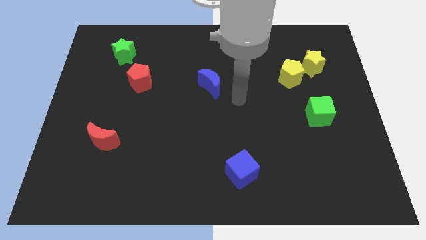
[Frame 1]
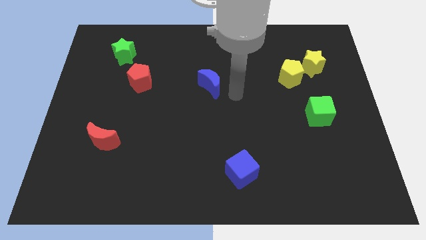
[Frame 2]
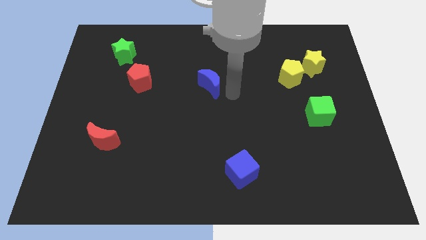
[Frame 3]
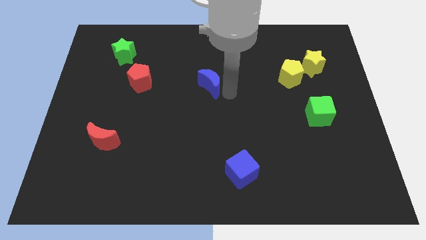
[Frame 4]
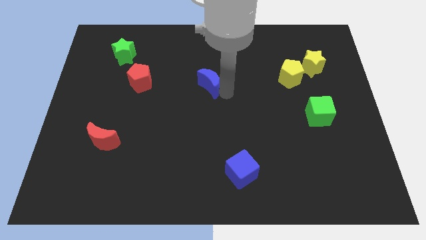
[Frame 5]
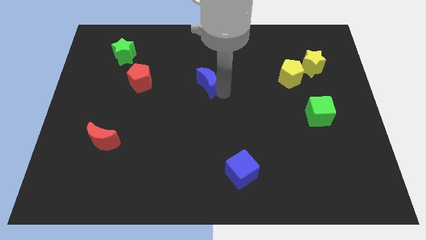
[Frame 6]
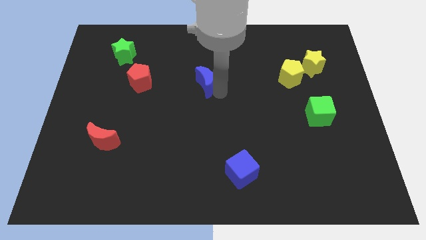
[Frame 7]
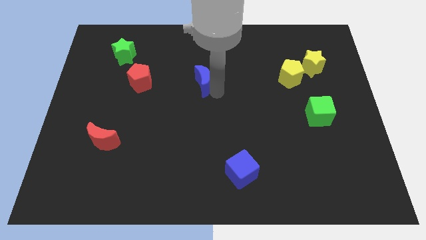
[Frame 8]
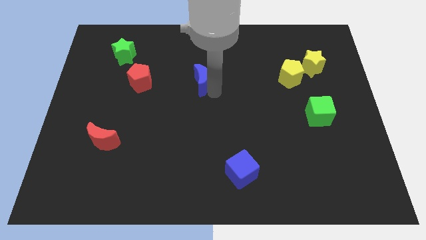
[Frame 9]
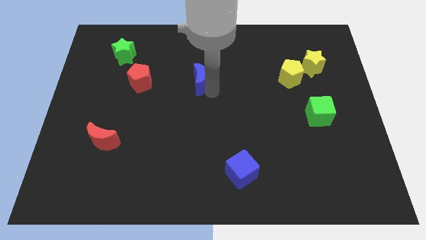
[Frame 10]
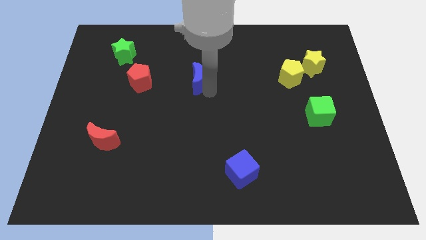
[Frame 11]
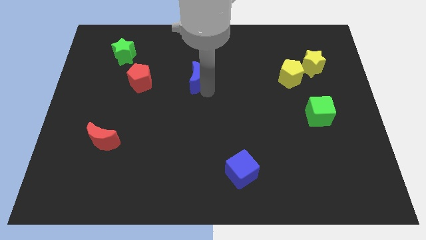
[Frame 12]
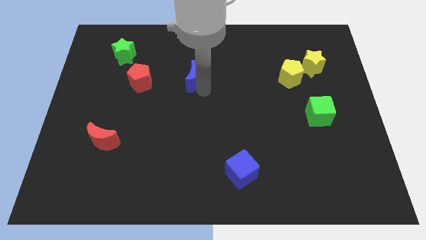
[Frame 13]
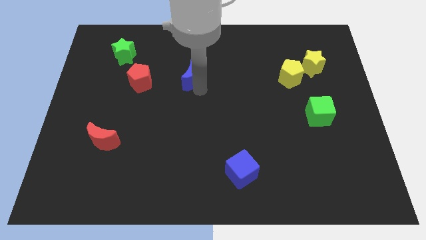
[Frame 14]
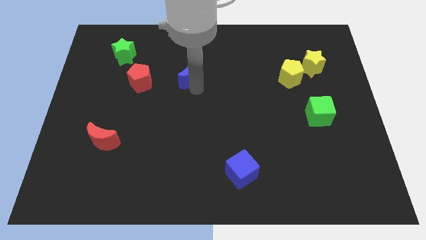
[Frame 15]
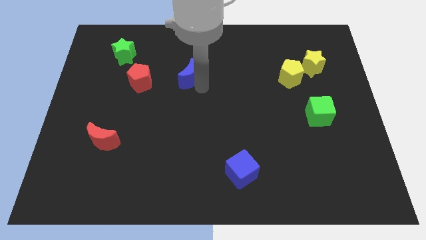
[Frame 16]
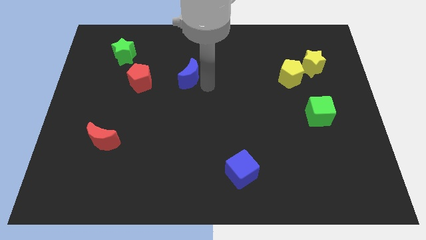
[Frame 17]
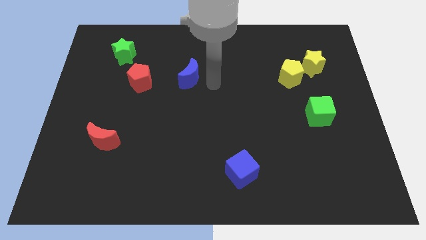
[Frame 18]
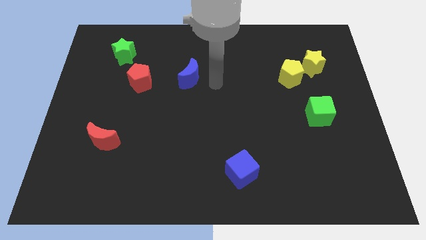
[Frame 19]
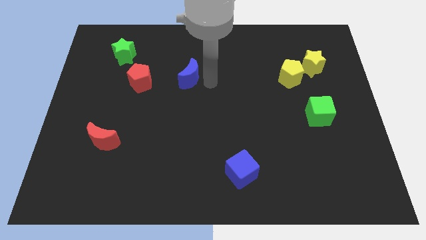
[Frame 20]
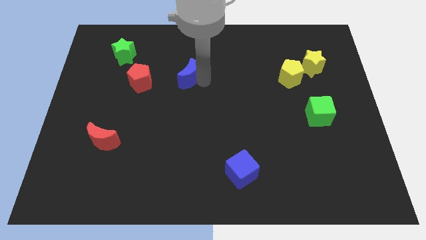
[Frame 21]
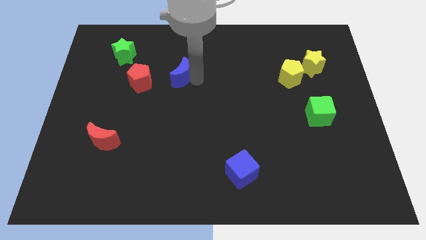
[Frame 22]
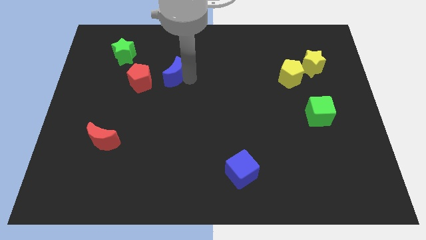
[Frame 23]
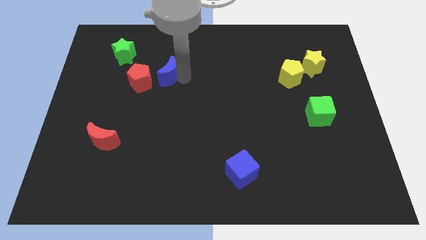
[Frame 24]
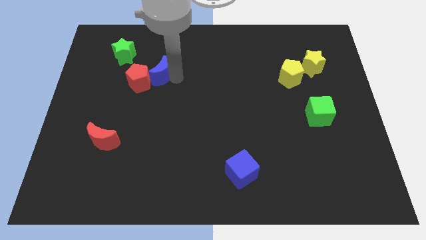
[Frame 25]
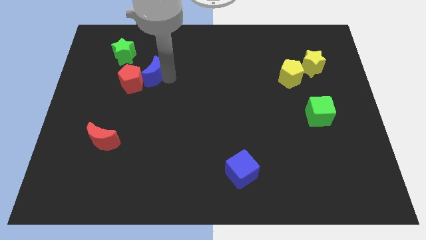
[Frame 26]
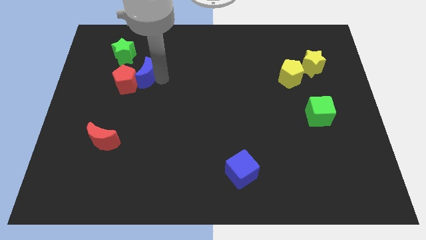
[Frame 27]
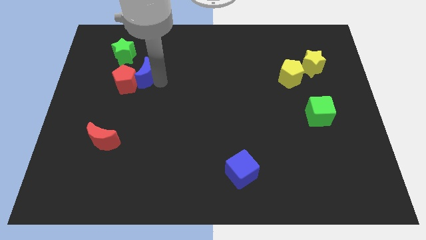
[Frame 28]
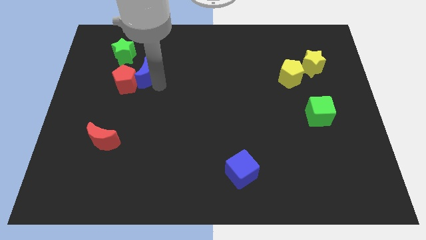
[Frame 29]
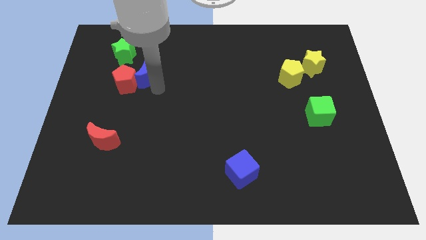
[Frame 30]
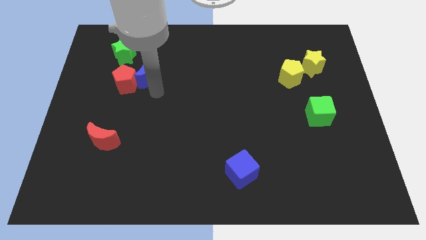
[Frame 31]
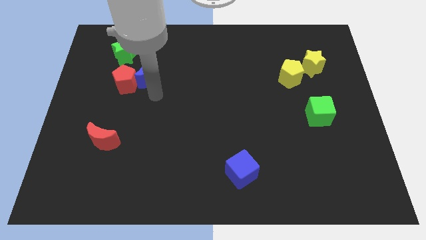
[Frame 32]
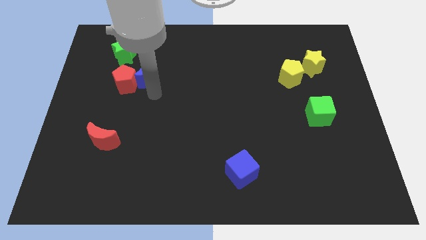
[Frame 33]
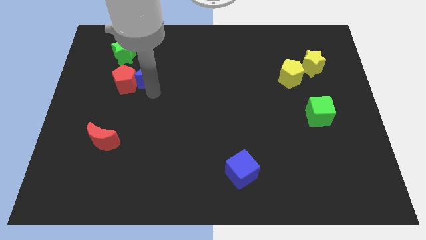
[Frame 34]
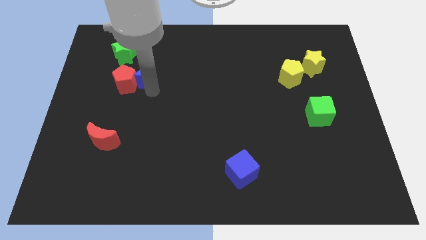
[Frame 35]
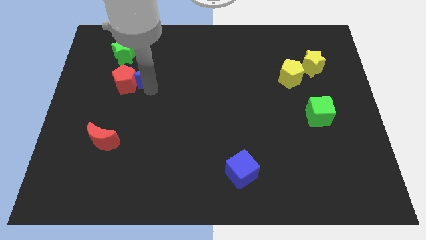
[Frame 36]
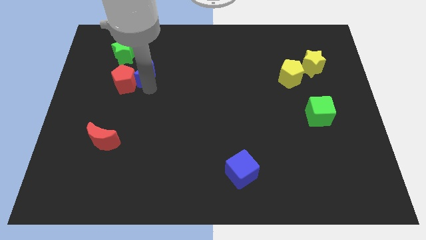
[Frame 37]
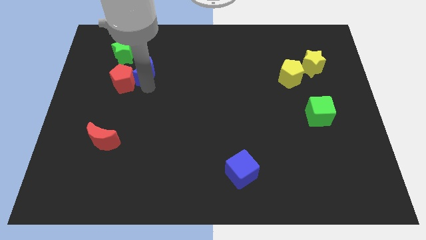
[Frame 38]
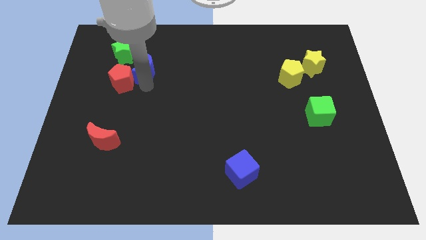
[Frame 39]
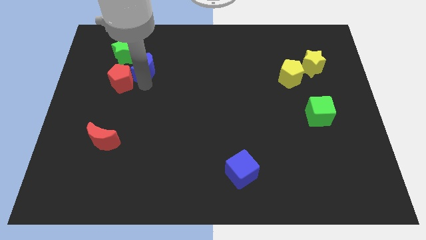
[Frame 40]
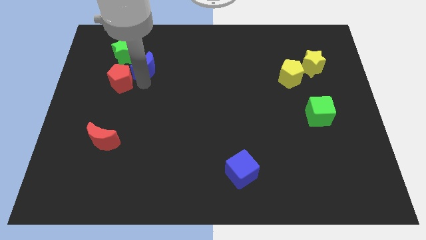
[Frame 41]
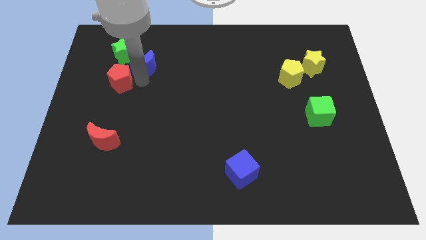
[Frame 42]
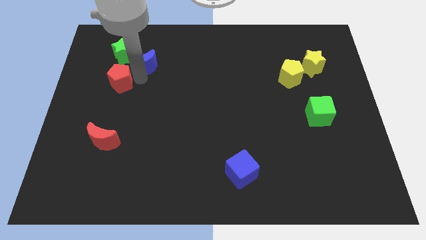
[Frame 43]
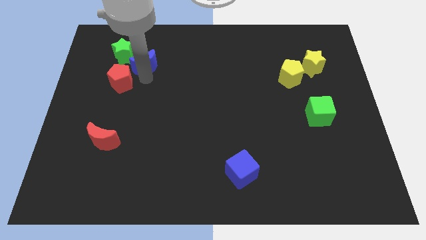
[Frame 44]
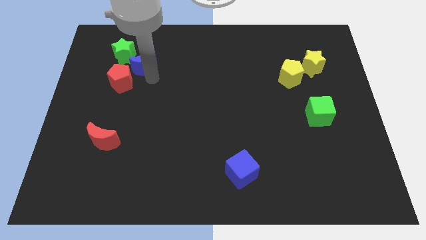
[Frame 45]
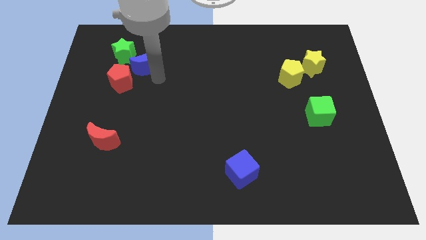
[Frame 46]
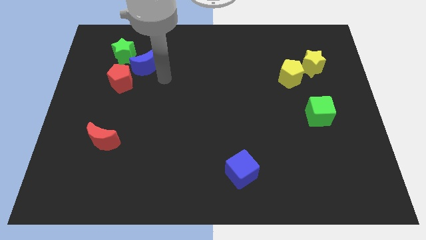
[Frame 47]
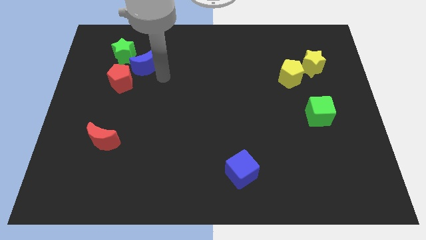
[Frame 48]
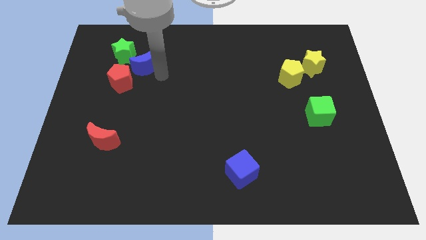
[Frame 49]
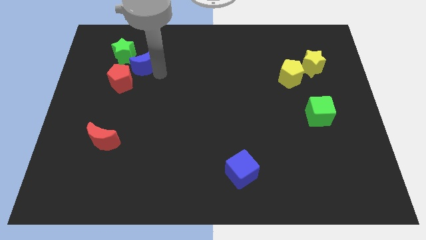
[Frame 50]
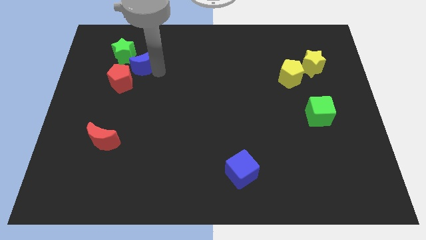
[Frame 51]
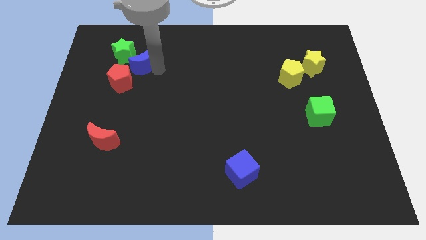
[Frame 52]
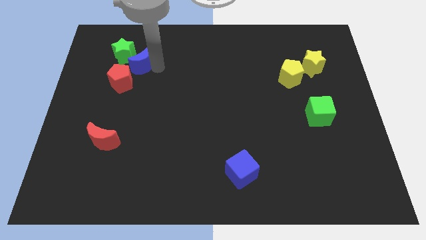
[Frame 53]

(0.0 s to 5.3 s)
put the blue moon to the green star

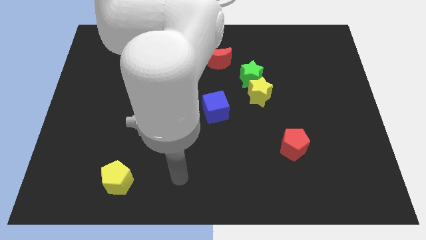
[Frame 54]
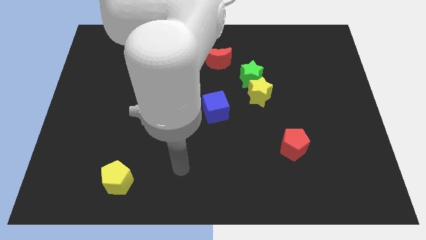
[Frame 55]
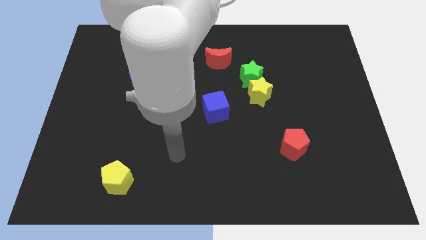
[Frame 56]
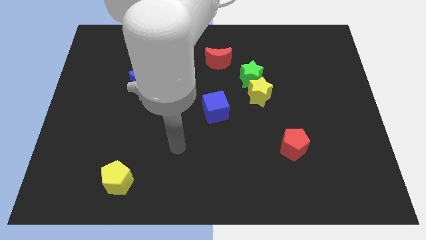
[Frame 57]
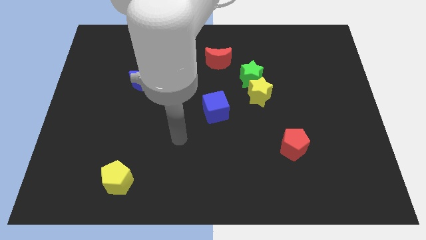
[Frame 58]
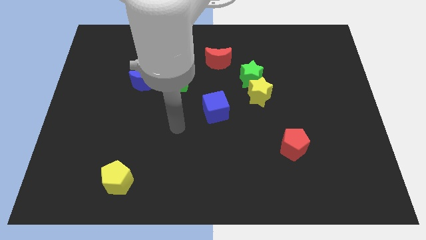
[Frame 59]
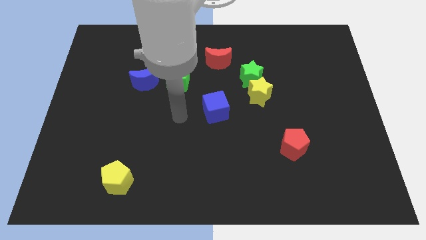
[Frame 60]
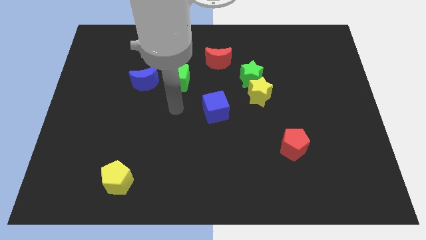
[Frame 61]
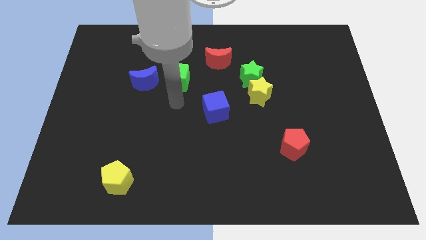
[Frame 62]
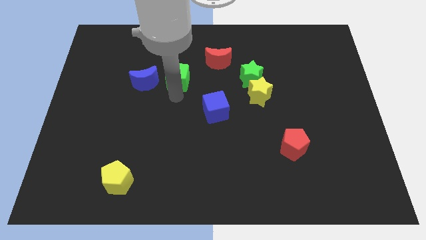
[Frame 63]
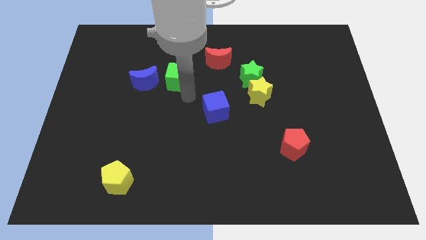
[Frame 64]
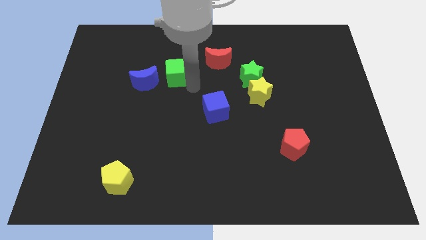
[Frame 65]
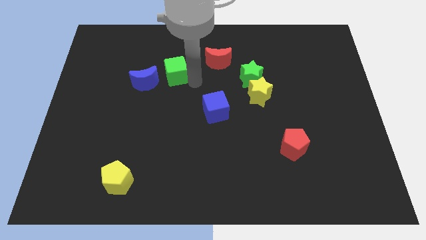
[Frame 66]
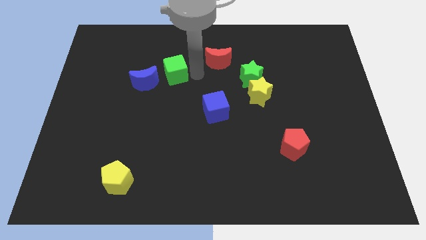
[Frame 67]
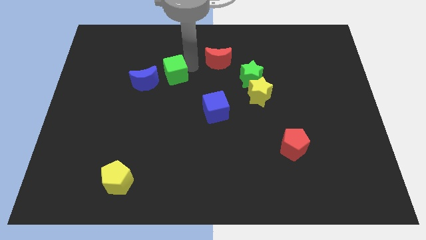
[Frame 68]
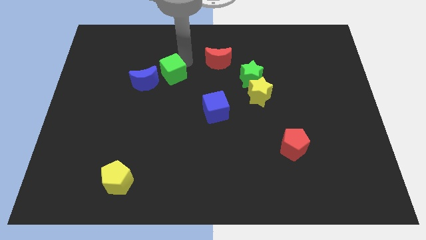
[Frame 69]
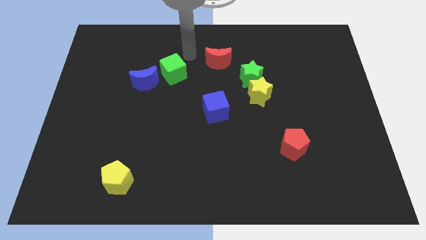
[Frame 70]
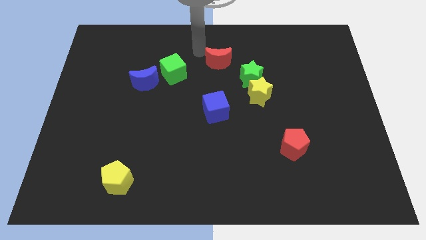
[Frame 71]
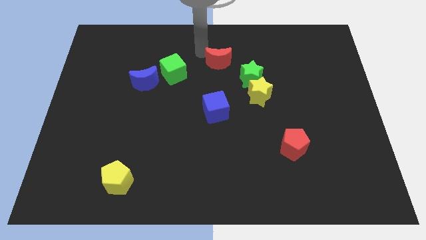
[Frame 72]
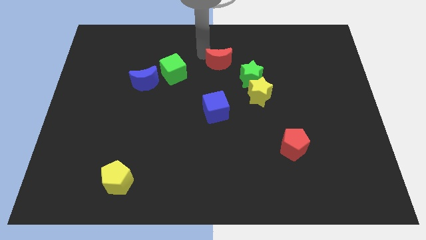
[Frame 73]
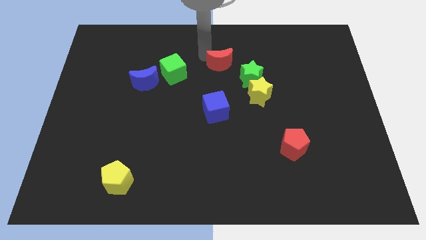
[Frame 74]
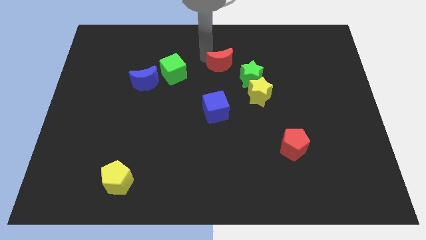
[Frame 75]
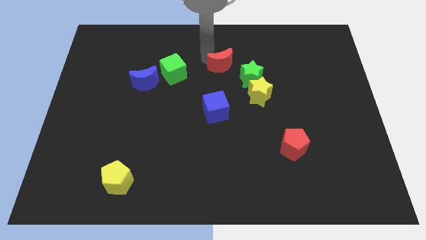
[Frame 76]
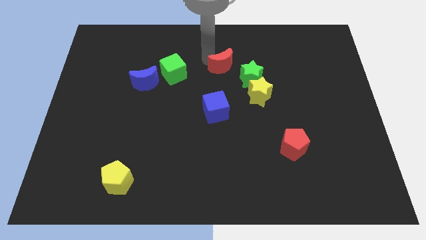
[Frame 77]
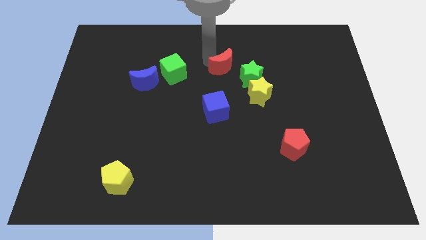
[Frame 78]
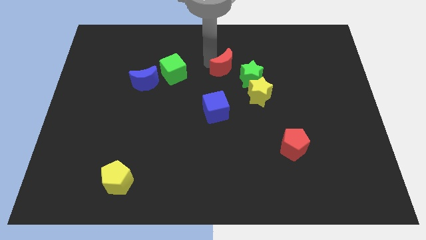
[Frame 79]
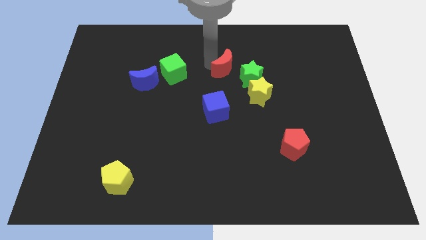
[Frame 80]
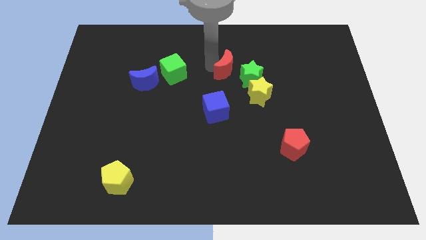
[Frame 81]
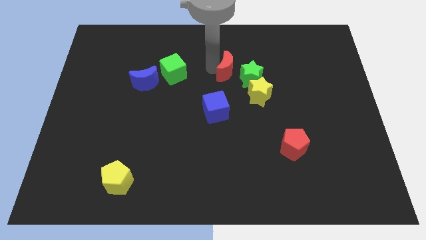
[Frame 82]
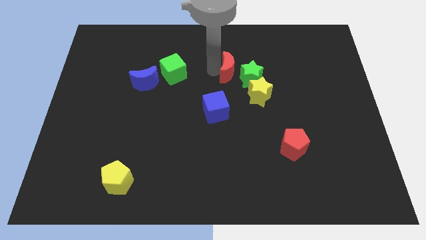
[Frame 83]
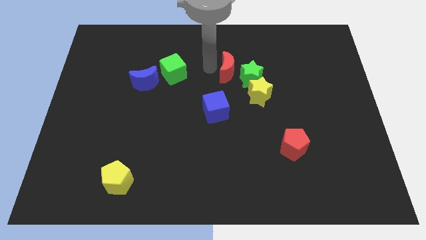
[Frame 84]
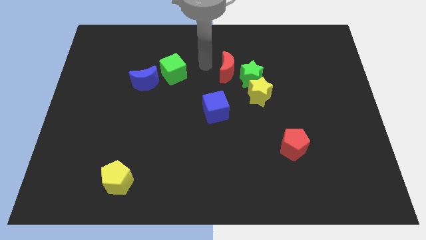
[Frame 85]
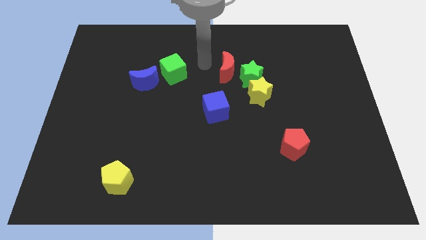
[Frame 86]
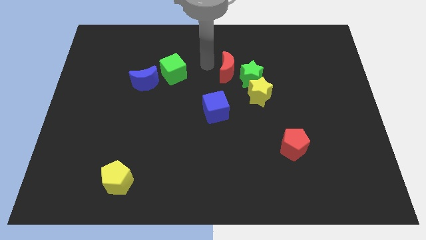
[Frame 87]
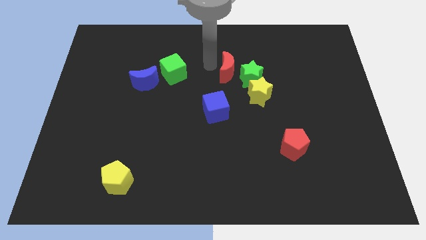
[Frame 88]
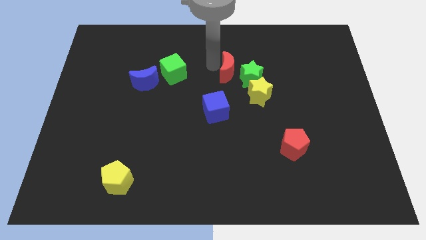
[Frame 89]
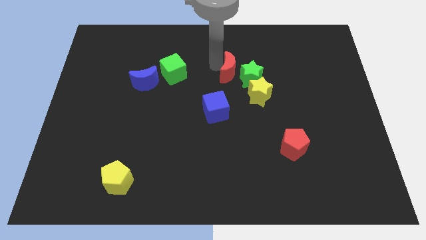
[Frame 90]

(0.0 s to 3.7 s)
move the red moon to the green star
